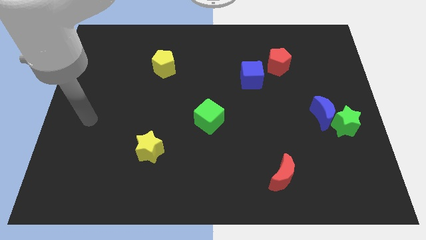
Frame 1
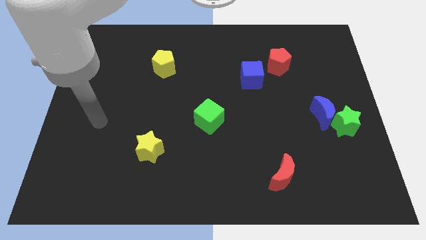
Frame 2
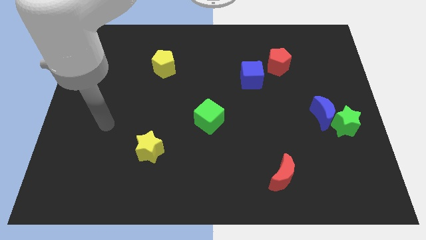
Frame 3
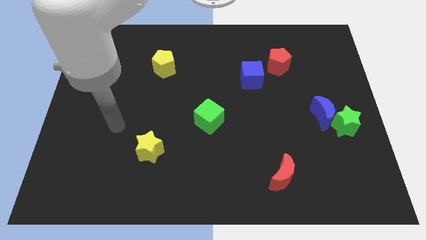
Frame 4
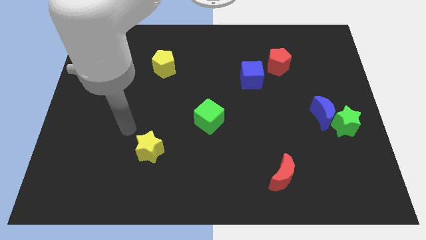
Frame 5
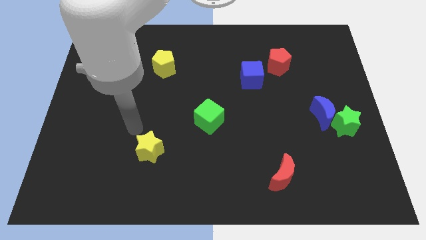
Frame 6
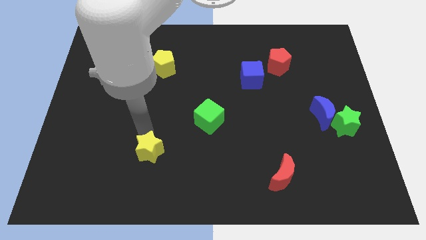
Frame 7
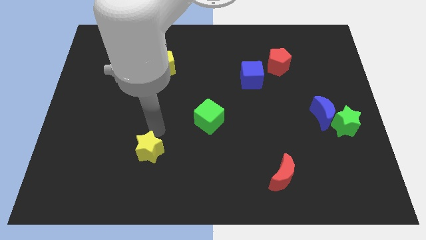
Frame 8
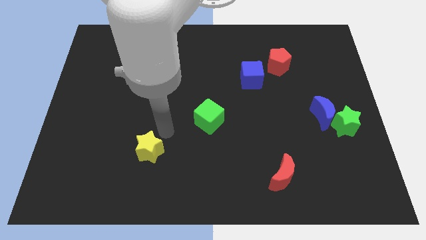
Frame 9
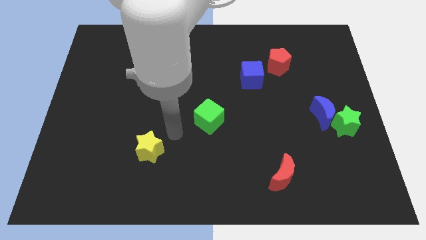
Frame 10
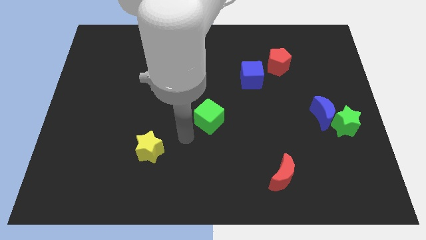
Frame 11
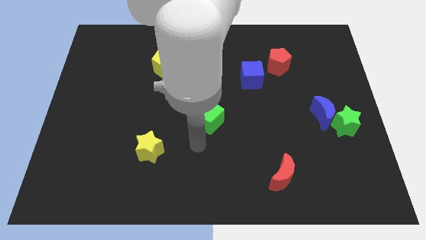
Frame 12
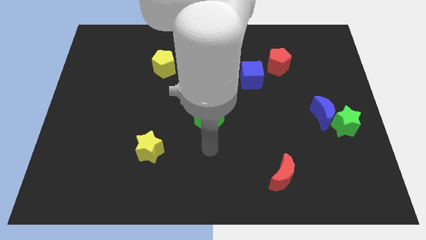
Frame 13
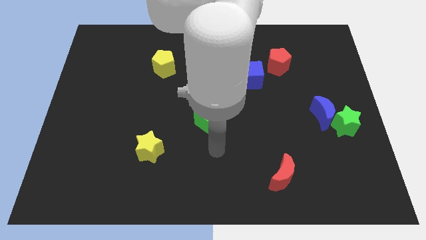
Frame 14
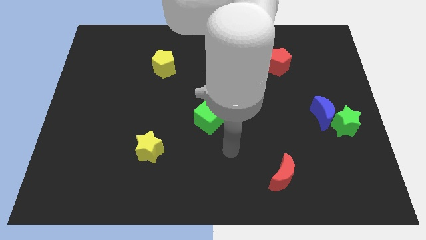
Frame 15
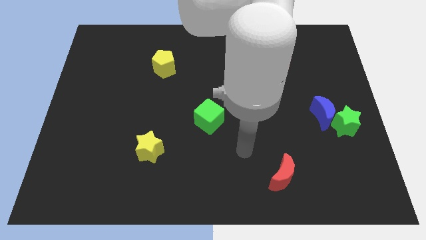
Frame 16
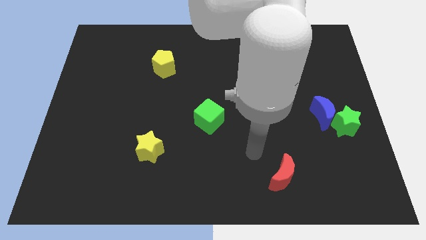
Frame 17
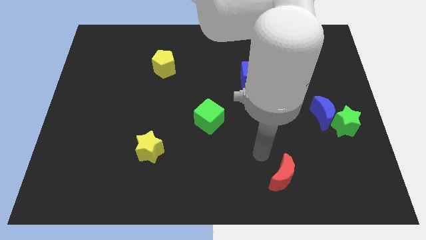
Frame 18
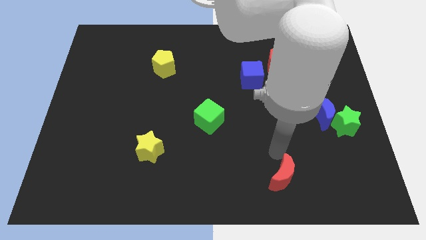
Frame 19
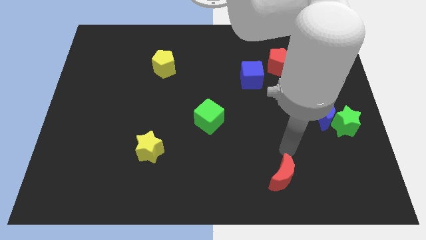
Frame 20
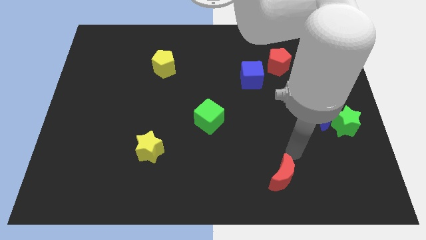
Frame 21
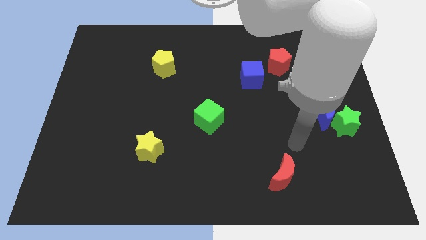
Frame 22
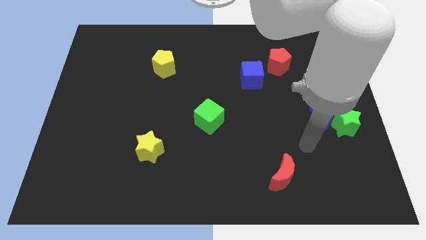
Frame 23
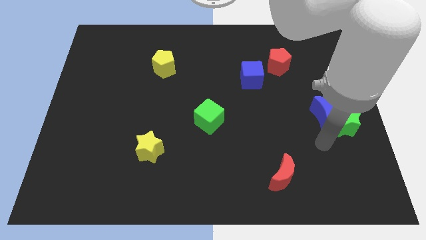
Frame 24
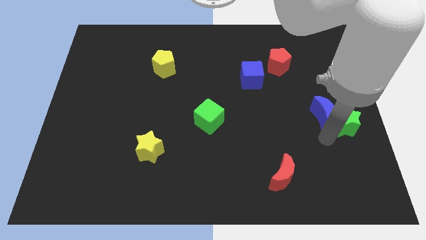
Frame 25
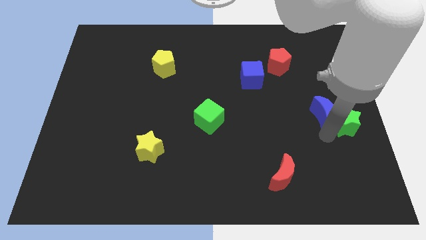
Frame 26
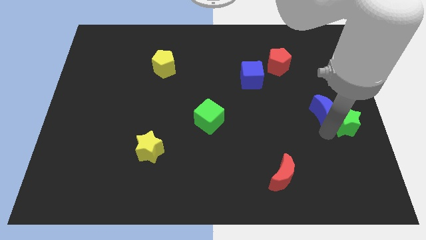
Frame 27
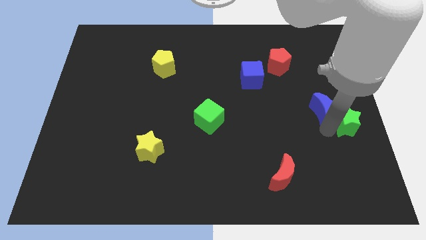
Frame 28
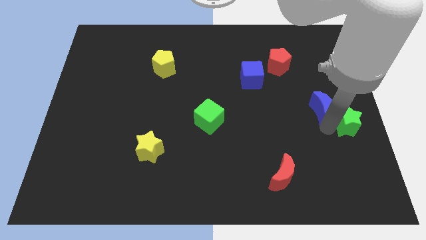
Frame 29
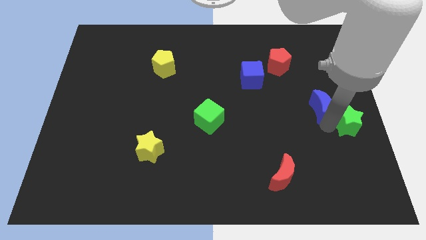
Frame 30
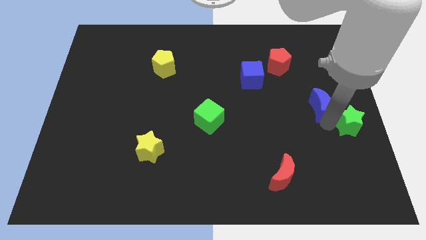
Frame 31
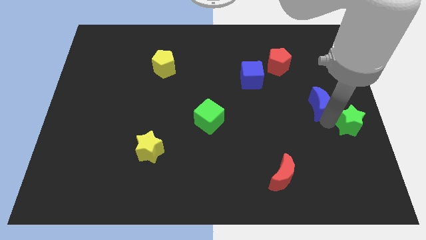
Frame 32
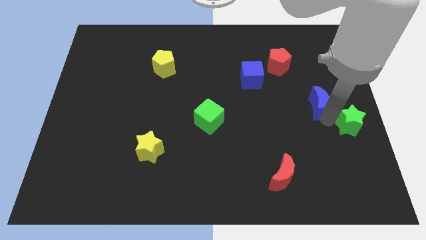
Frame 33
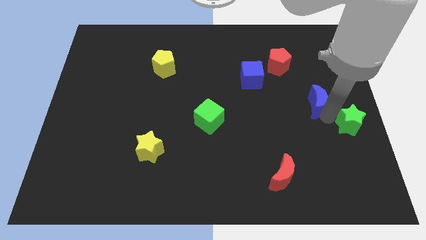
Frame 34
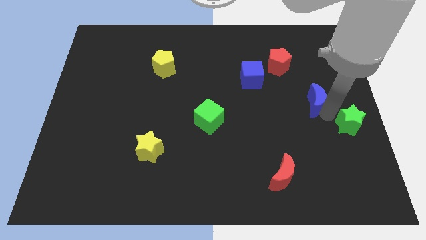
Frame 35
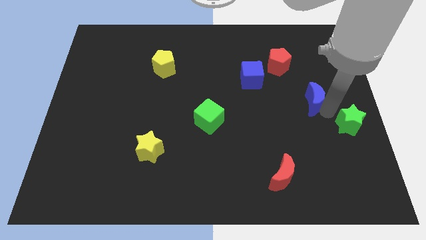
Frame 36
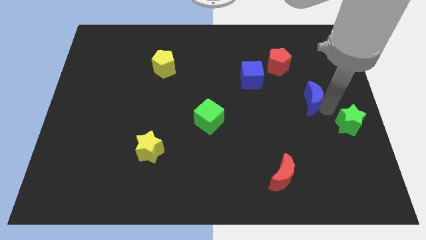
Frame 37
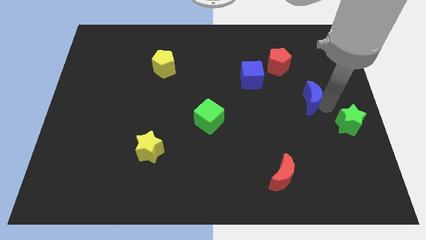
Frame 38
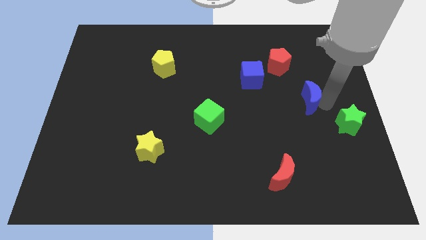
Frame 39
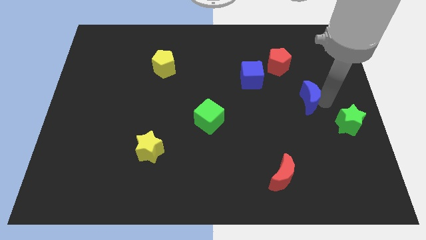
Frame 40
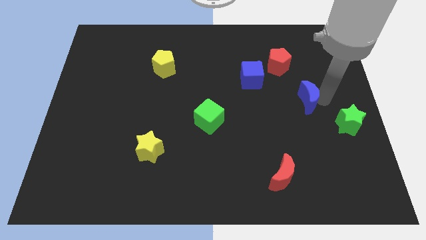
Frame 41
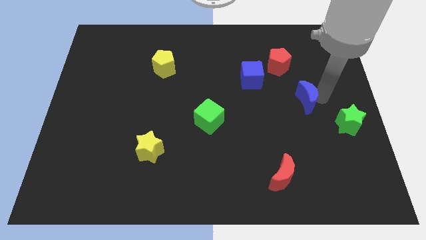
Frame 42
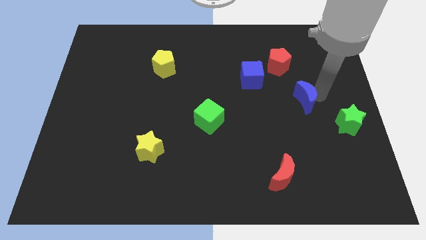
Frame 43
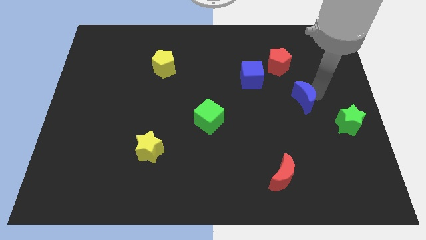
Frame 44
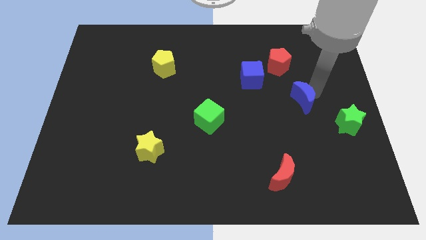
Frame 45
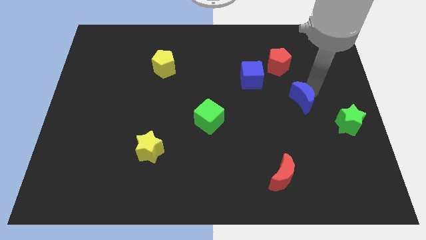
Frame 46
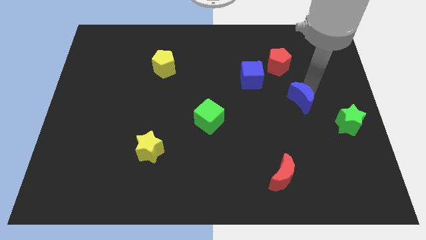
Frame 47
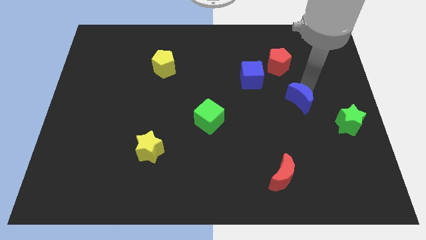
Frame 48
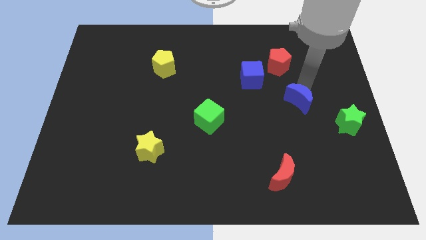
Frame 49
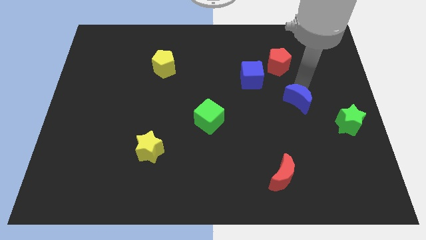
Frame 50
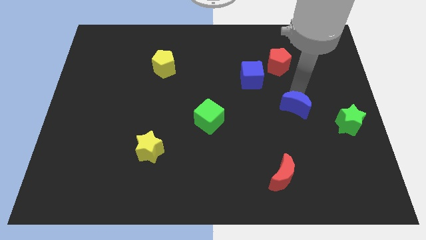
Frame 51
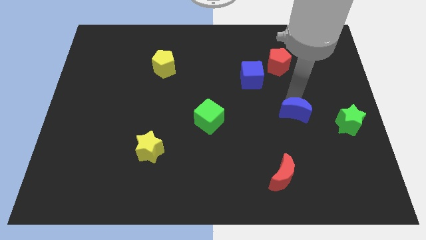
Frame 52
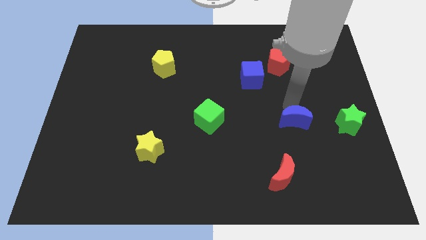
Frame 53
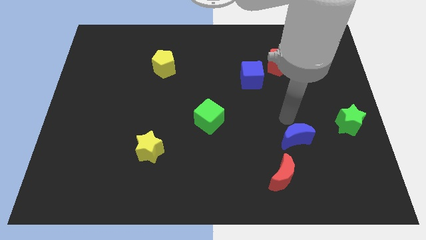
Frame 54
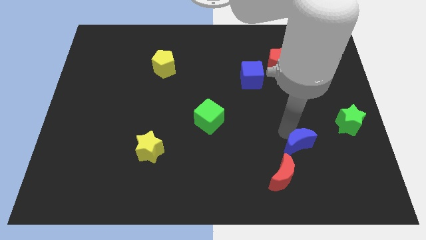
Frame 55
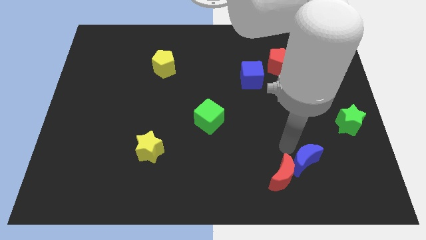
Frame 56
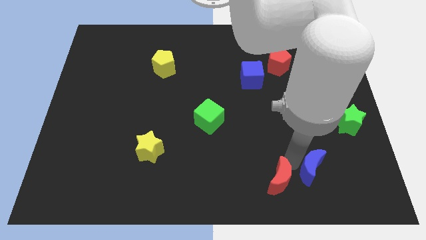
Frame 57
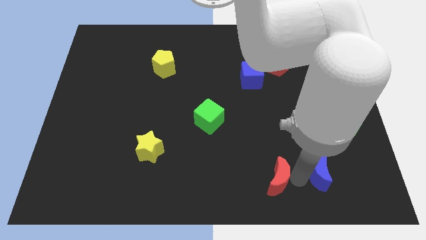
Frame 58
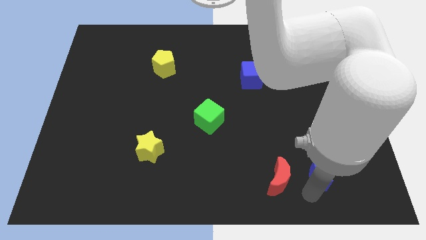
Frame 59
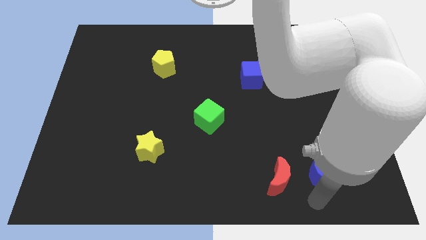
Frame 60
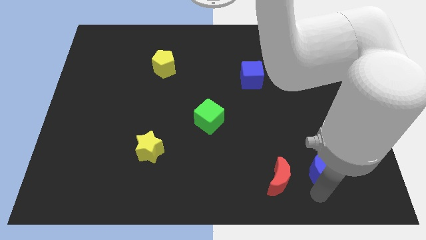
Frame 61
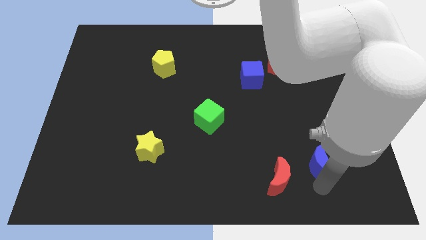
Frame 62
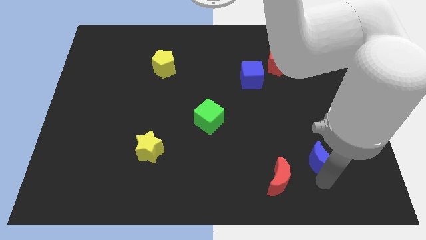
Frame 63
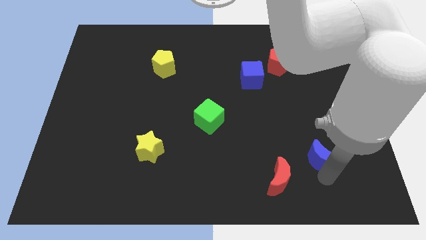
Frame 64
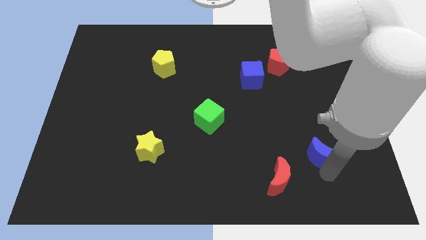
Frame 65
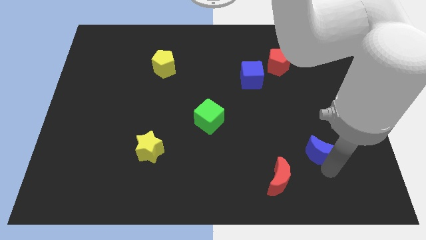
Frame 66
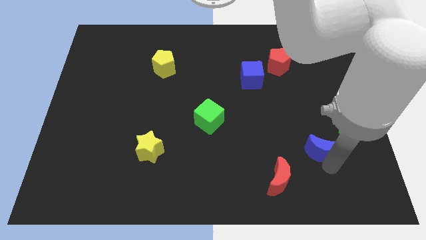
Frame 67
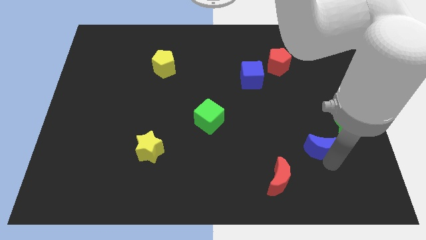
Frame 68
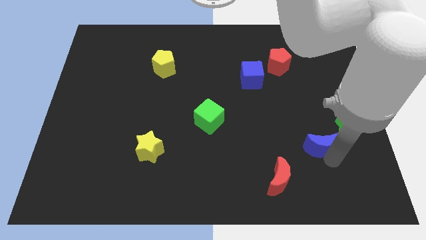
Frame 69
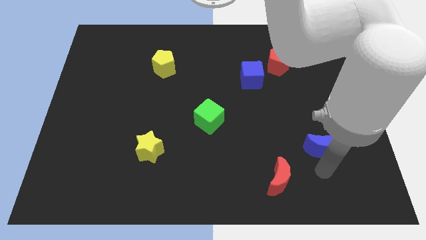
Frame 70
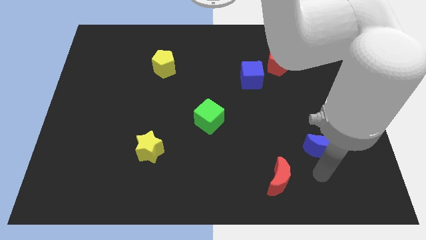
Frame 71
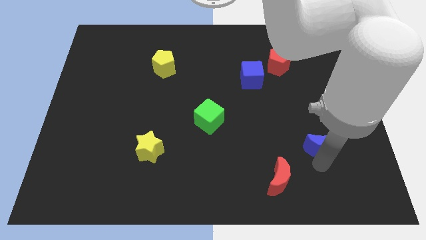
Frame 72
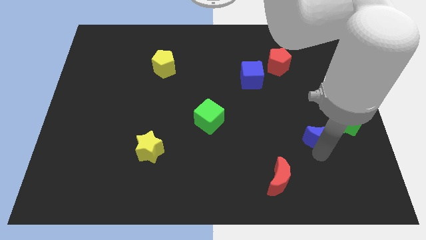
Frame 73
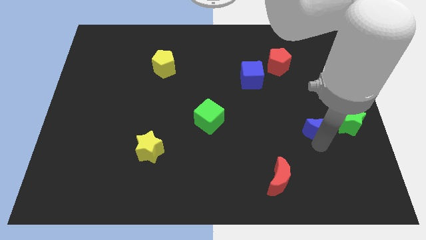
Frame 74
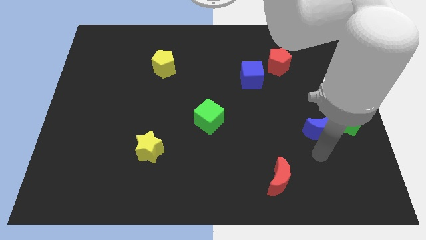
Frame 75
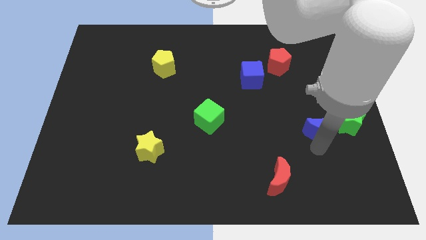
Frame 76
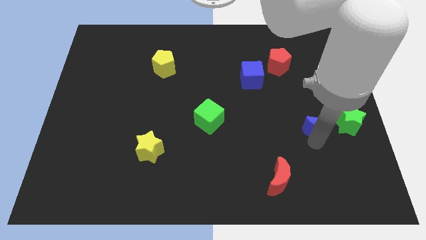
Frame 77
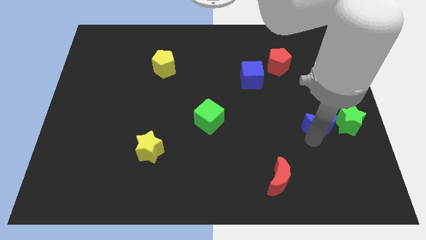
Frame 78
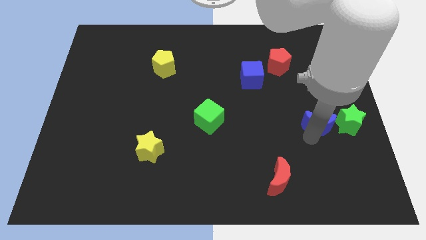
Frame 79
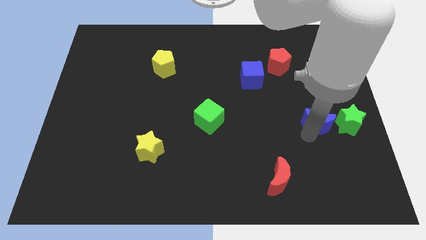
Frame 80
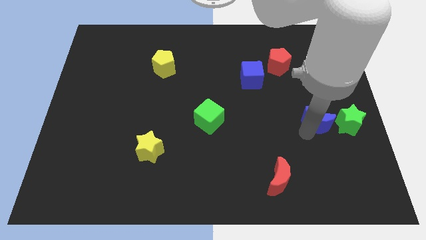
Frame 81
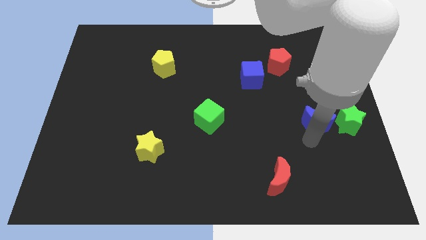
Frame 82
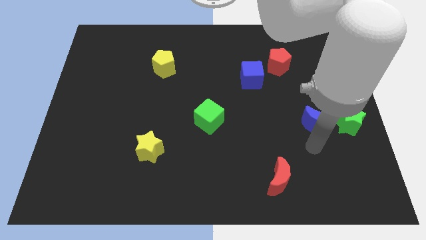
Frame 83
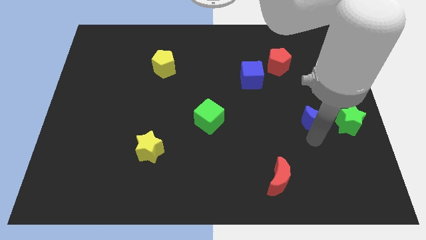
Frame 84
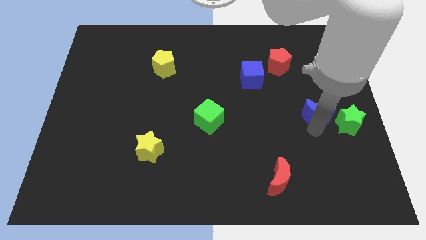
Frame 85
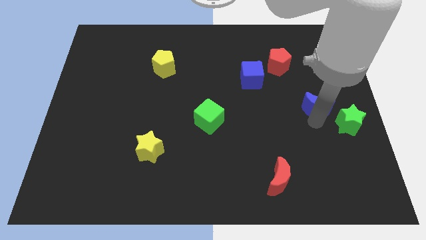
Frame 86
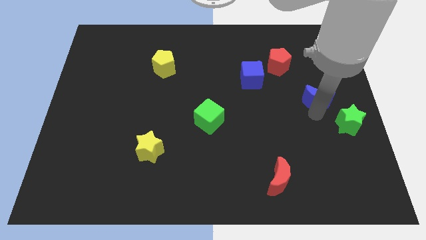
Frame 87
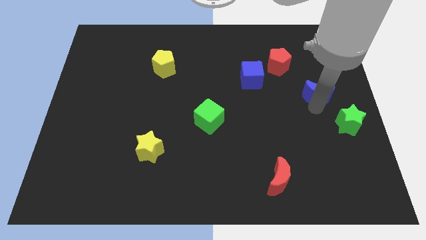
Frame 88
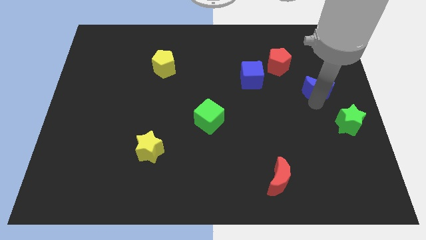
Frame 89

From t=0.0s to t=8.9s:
slightly move the blue moon up
